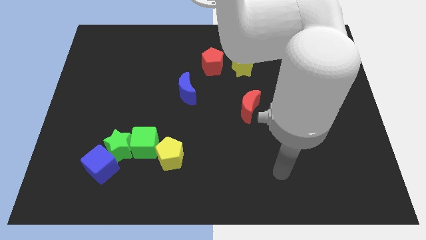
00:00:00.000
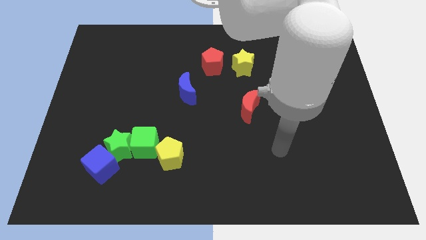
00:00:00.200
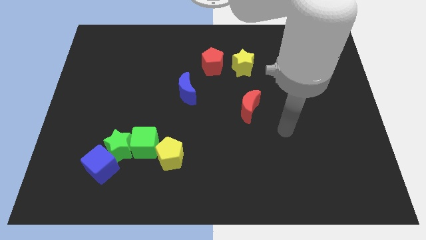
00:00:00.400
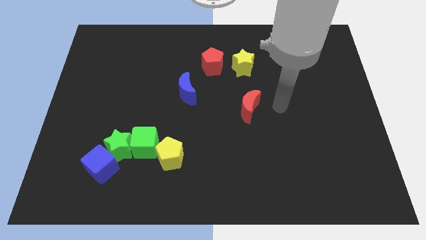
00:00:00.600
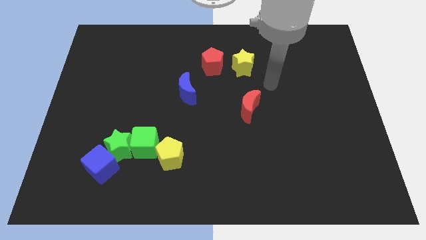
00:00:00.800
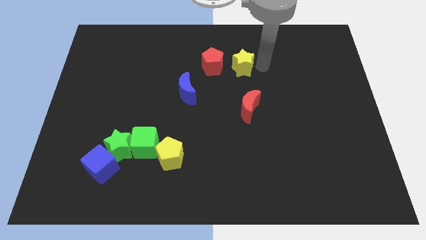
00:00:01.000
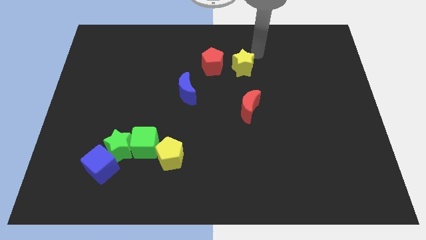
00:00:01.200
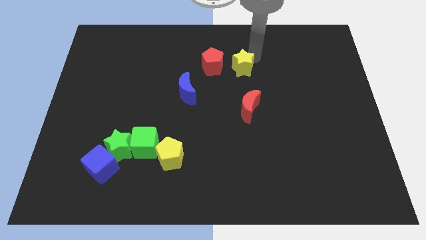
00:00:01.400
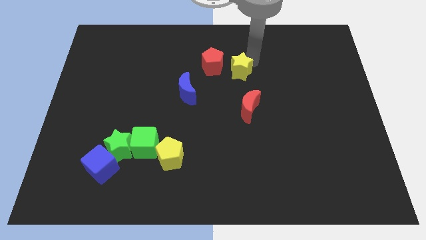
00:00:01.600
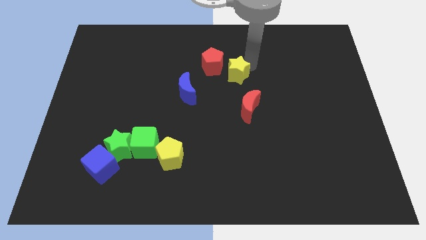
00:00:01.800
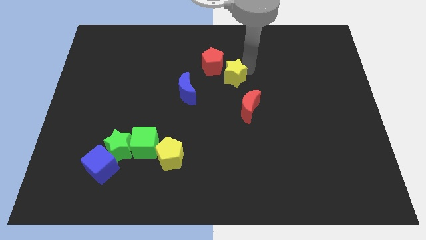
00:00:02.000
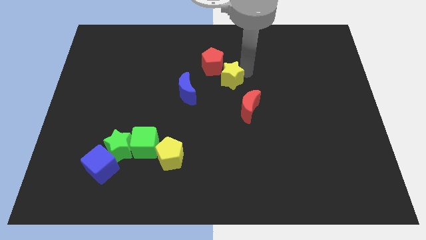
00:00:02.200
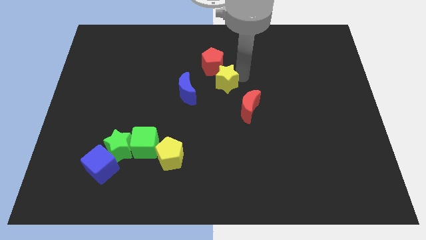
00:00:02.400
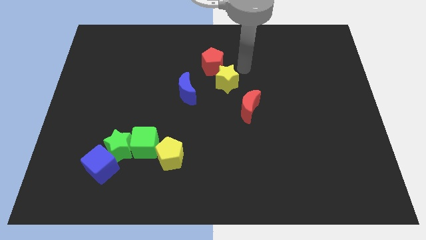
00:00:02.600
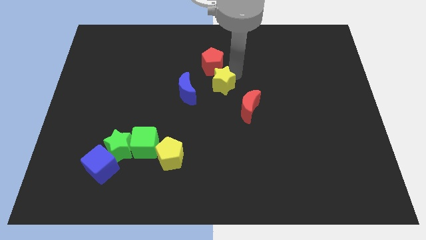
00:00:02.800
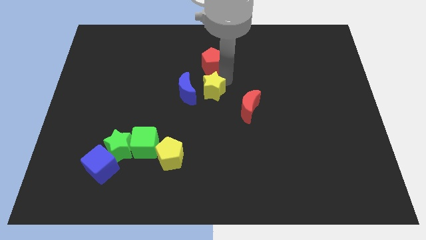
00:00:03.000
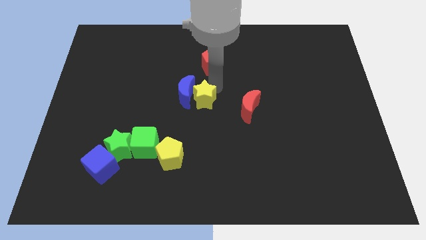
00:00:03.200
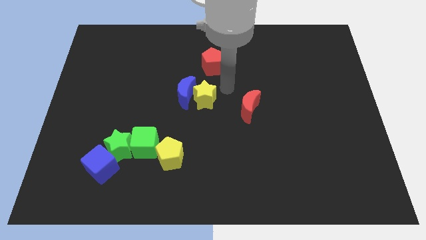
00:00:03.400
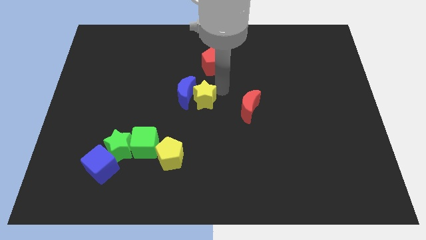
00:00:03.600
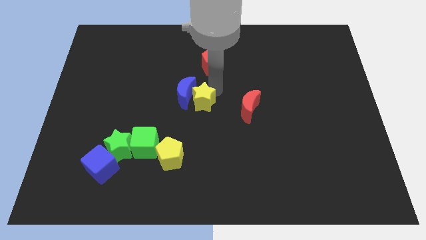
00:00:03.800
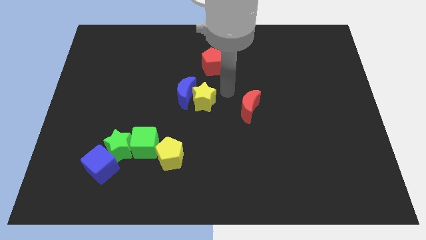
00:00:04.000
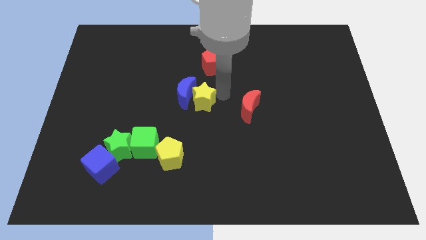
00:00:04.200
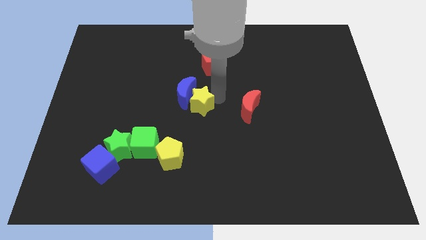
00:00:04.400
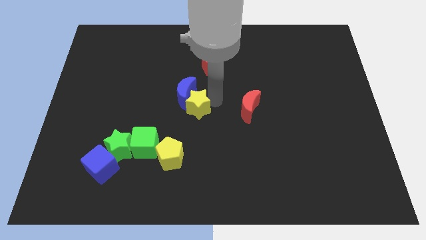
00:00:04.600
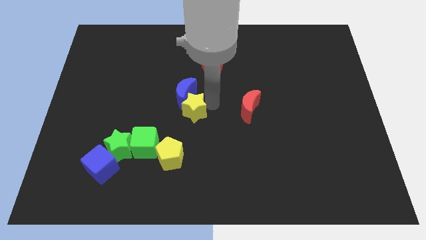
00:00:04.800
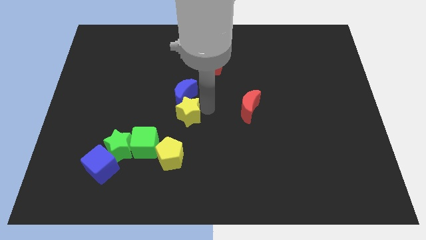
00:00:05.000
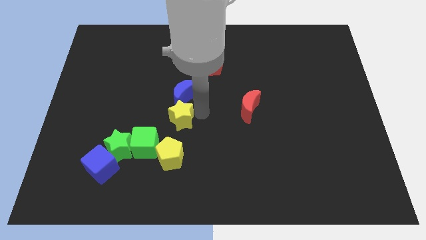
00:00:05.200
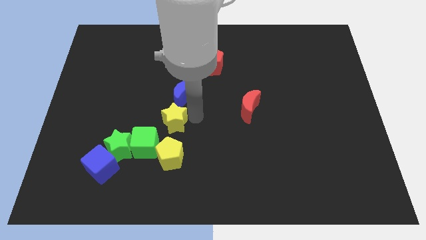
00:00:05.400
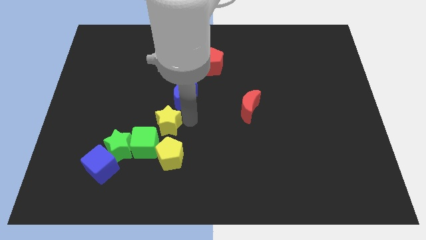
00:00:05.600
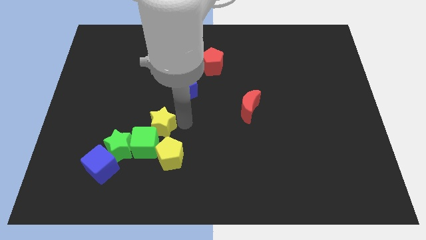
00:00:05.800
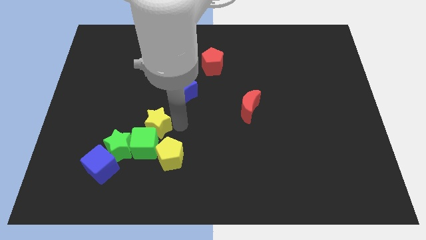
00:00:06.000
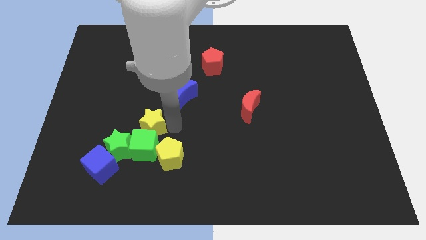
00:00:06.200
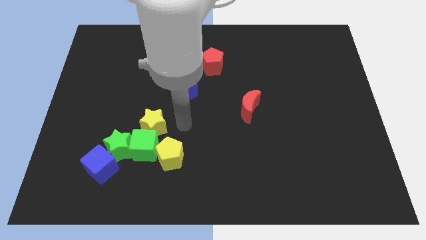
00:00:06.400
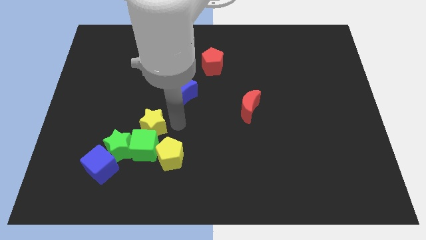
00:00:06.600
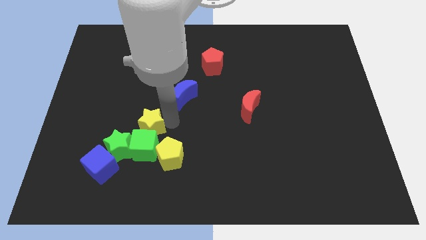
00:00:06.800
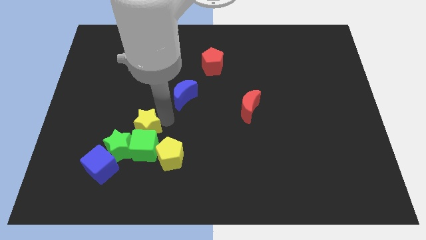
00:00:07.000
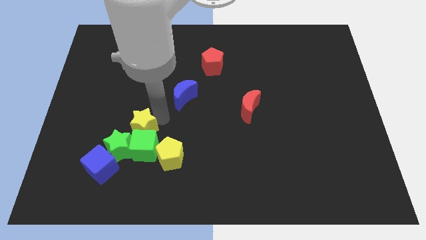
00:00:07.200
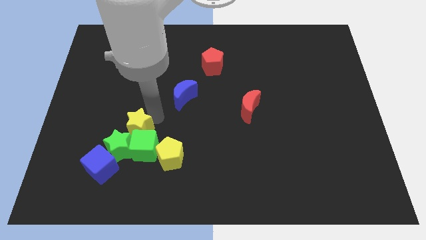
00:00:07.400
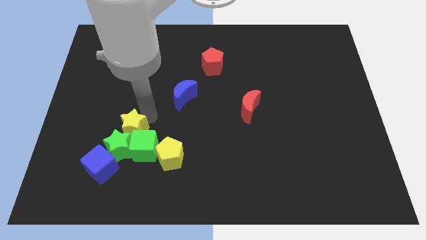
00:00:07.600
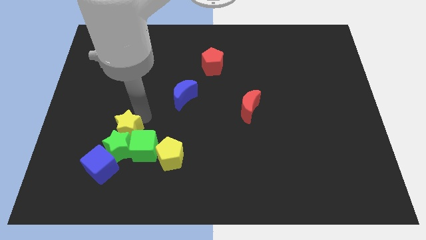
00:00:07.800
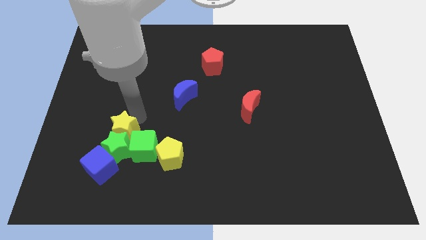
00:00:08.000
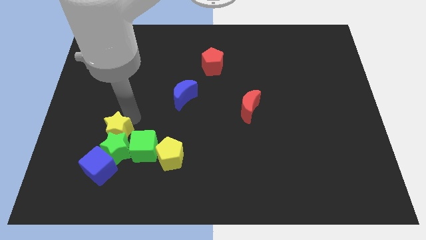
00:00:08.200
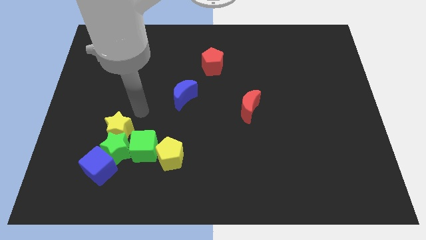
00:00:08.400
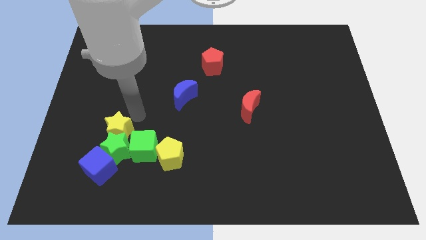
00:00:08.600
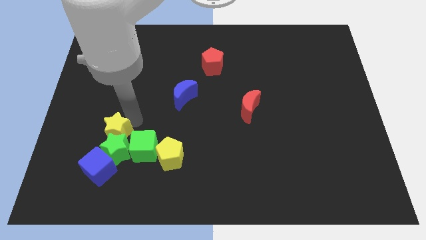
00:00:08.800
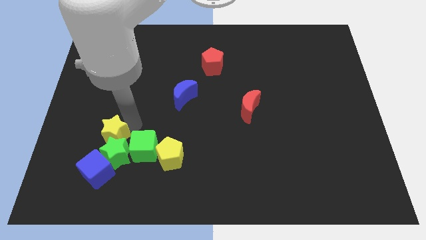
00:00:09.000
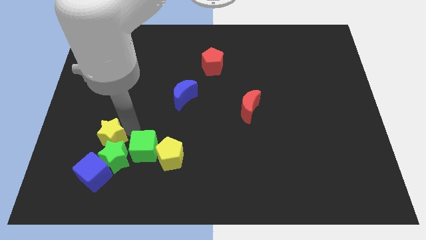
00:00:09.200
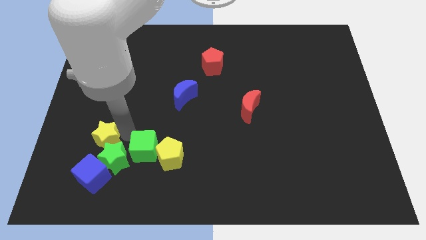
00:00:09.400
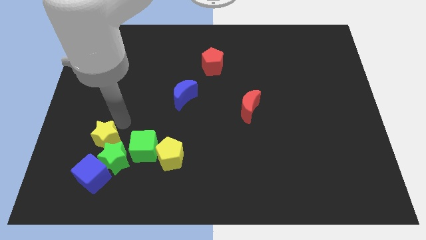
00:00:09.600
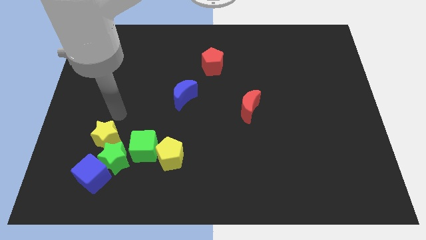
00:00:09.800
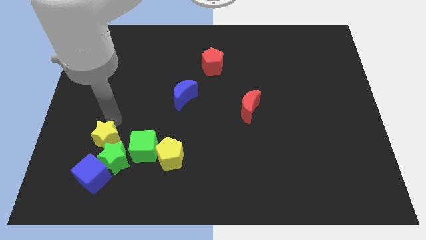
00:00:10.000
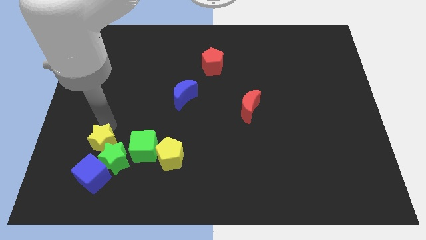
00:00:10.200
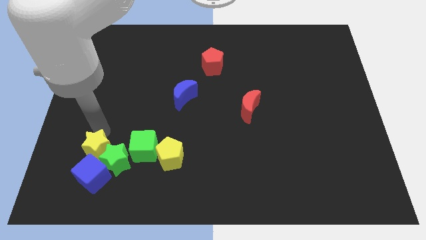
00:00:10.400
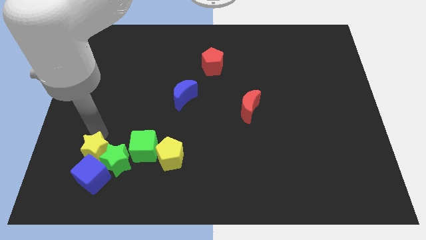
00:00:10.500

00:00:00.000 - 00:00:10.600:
push the yellow star close to the blue cube

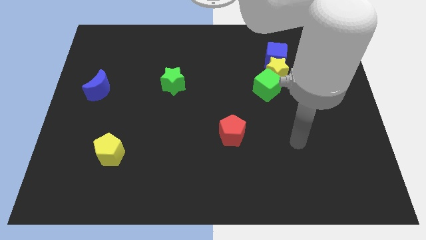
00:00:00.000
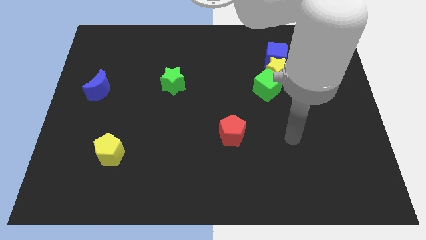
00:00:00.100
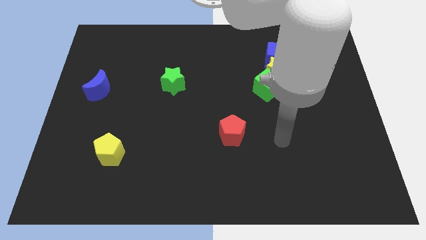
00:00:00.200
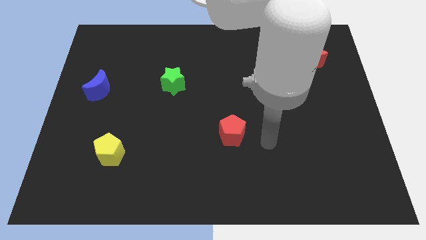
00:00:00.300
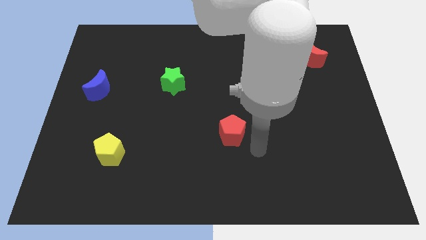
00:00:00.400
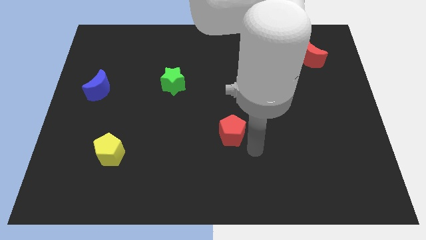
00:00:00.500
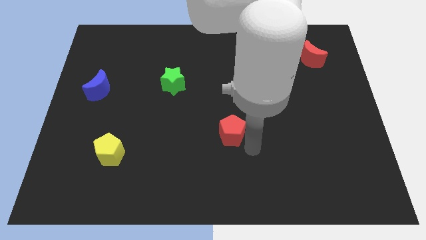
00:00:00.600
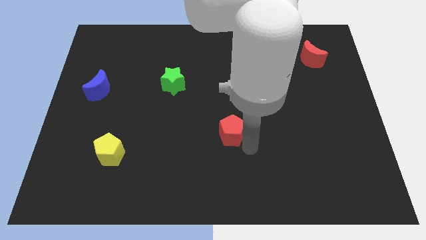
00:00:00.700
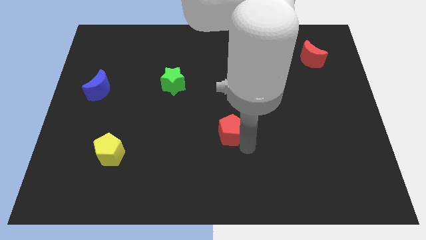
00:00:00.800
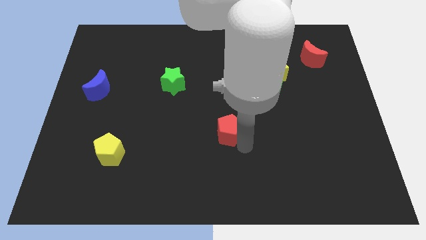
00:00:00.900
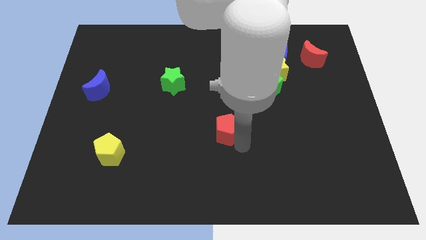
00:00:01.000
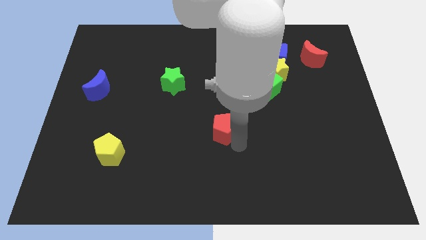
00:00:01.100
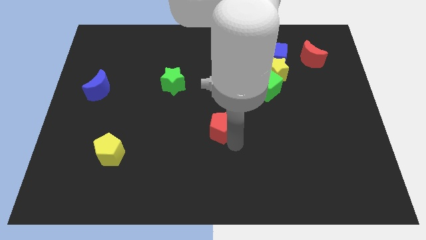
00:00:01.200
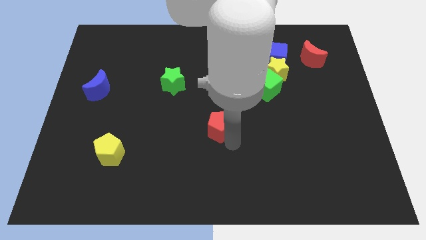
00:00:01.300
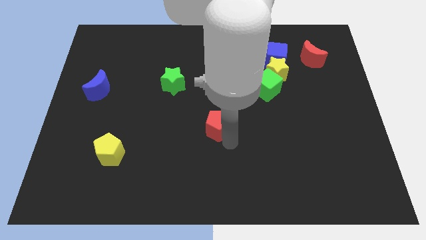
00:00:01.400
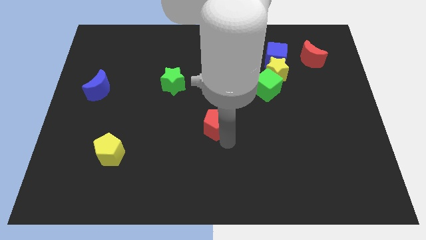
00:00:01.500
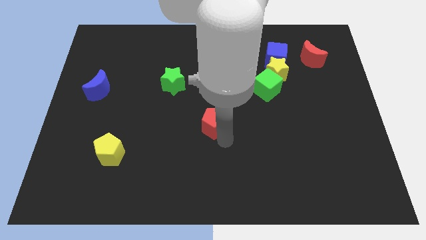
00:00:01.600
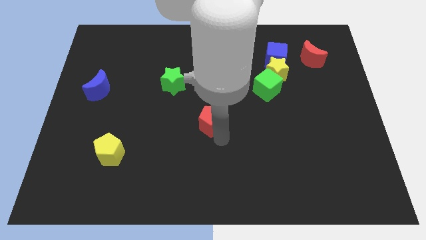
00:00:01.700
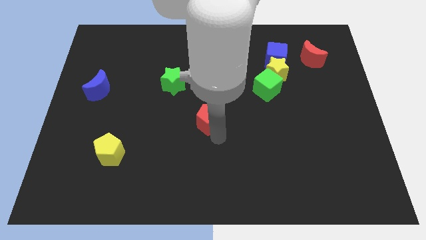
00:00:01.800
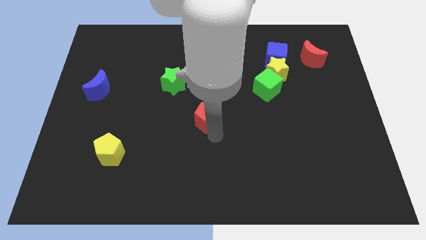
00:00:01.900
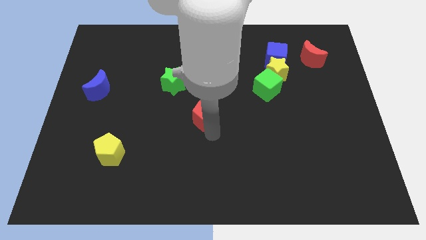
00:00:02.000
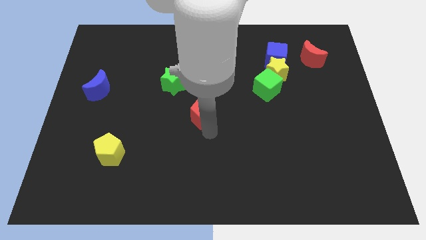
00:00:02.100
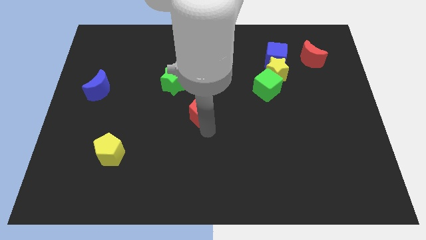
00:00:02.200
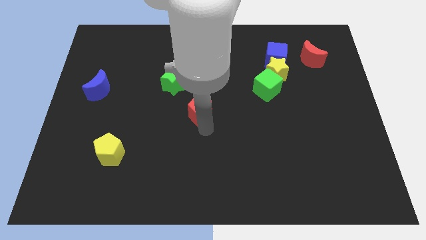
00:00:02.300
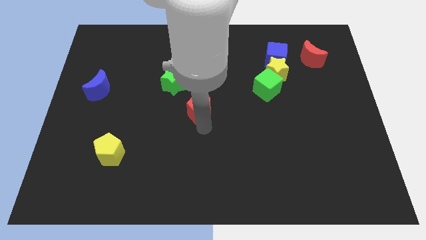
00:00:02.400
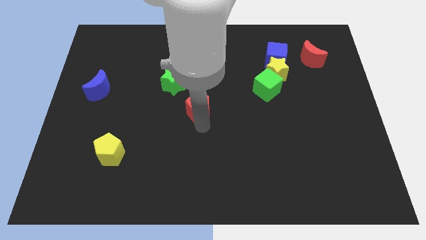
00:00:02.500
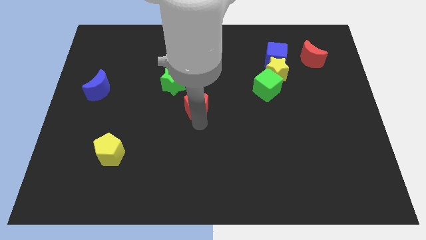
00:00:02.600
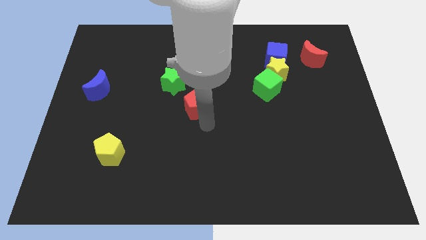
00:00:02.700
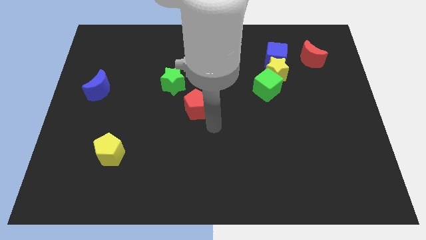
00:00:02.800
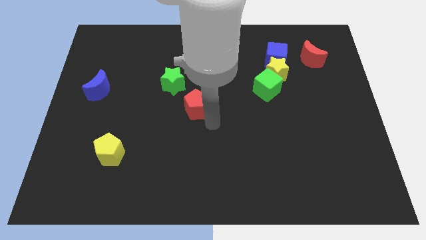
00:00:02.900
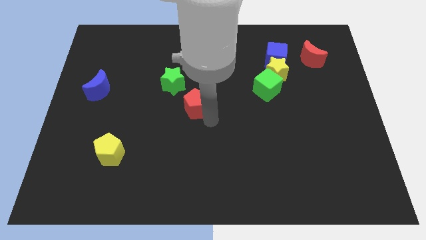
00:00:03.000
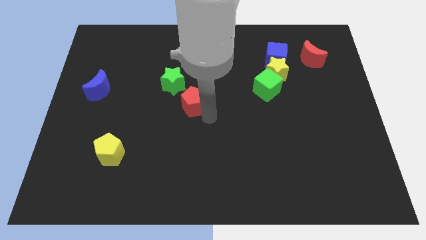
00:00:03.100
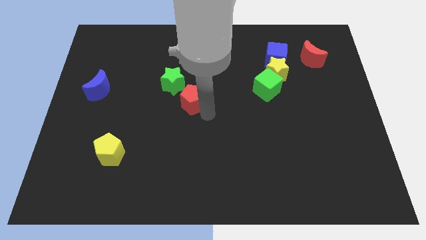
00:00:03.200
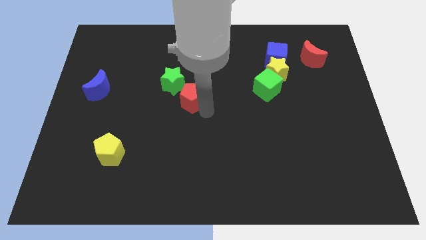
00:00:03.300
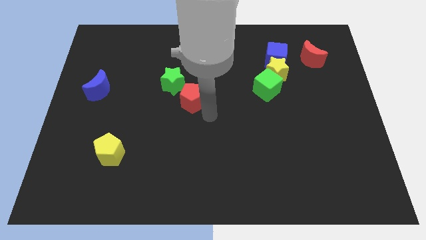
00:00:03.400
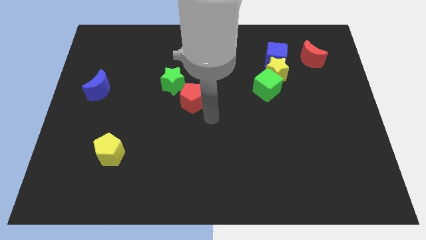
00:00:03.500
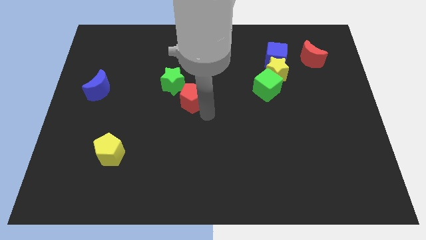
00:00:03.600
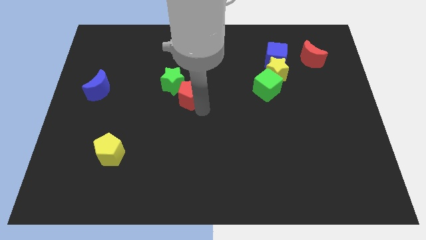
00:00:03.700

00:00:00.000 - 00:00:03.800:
slide the red pentagon close to the green star
